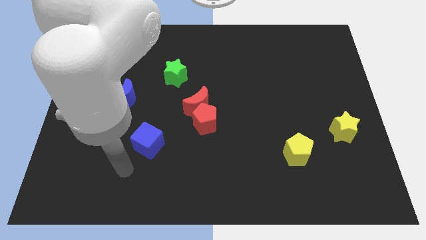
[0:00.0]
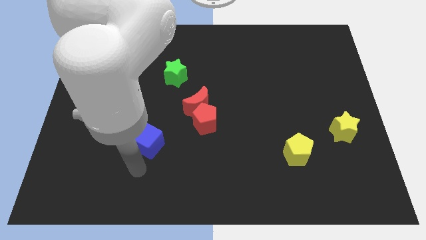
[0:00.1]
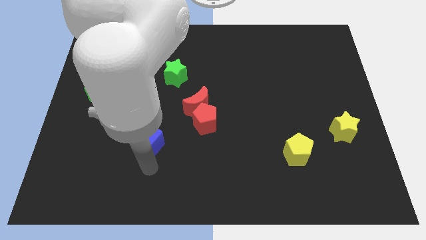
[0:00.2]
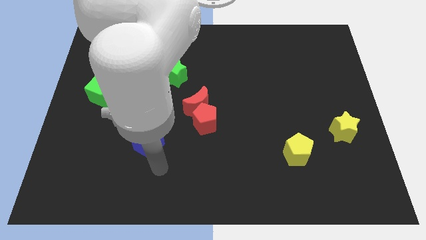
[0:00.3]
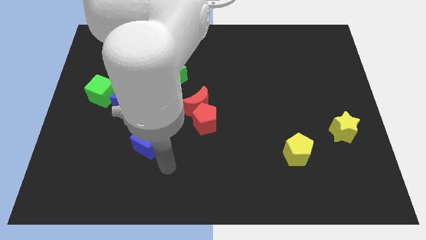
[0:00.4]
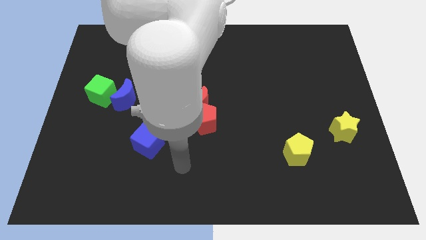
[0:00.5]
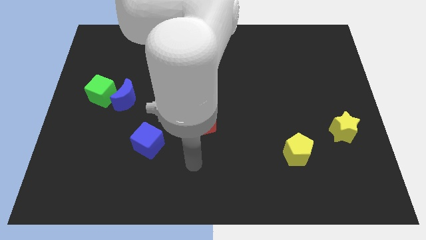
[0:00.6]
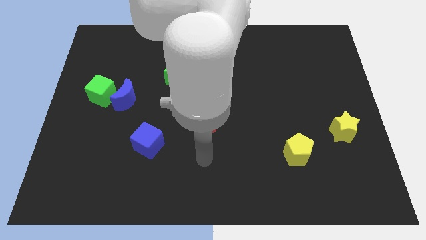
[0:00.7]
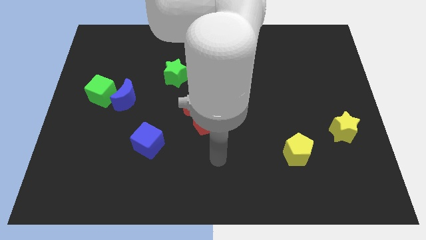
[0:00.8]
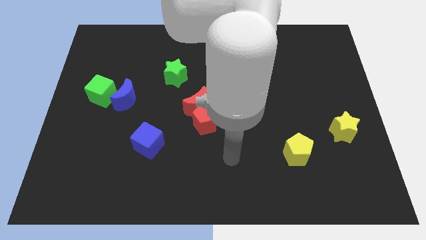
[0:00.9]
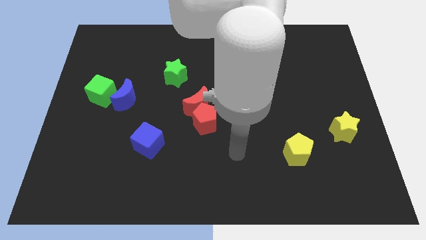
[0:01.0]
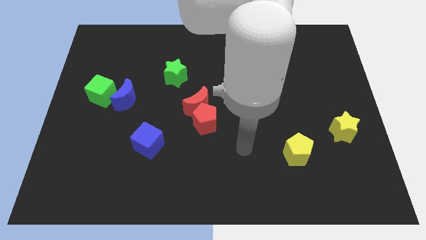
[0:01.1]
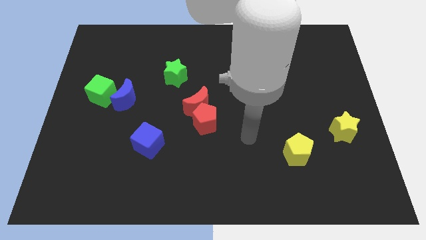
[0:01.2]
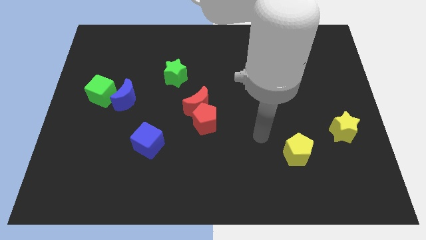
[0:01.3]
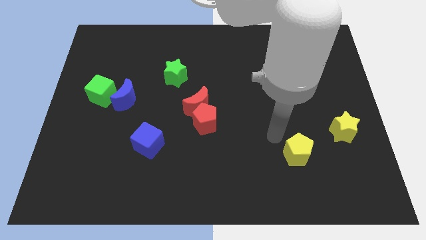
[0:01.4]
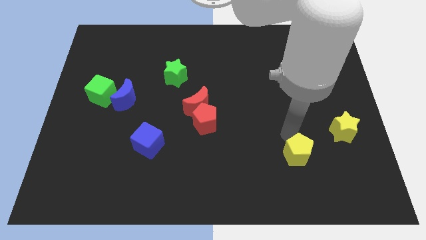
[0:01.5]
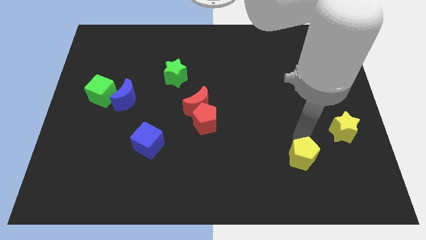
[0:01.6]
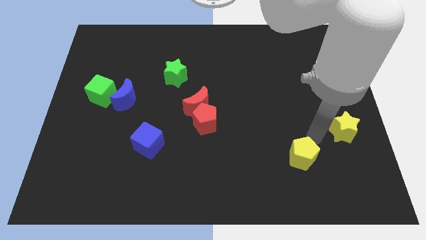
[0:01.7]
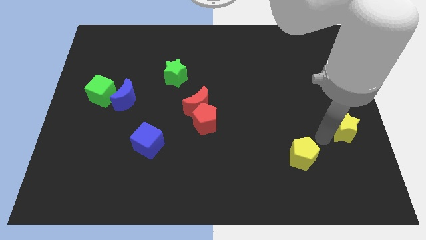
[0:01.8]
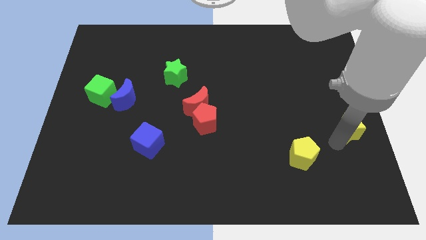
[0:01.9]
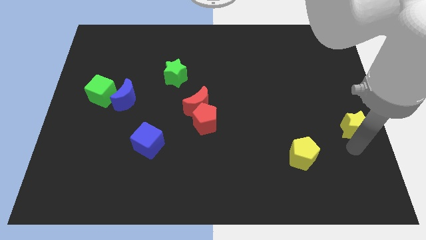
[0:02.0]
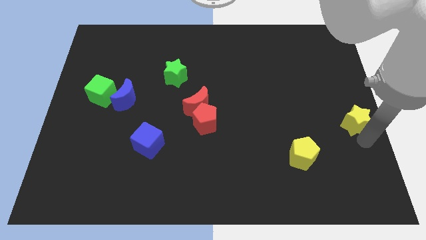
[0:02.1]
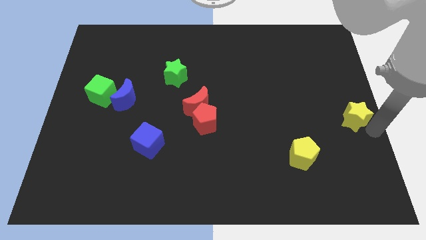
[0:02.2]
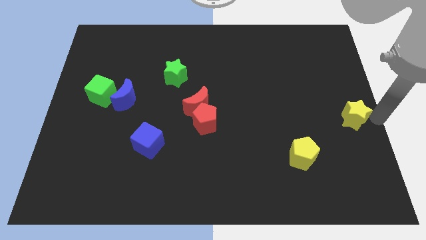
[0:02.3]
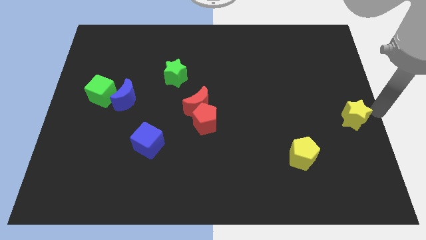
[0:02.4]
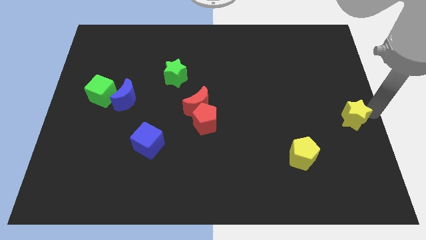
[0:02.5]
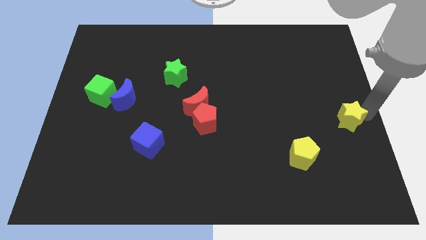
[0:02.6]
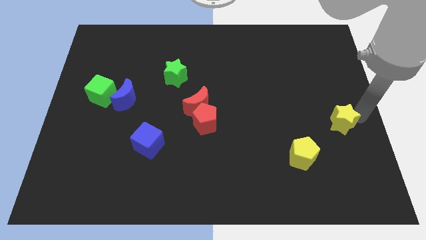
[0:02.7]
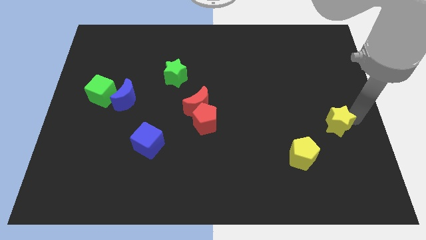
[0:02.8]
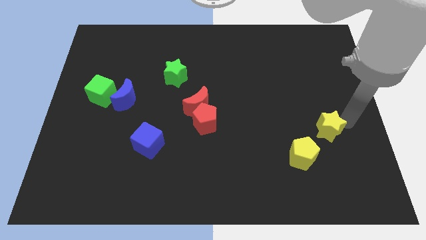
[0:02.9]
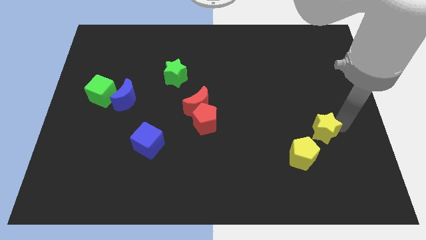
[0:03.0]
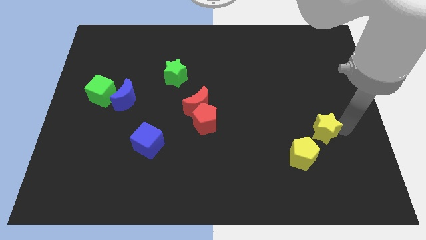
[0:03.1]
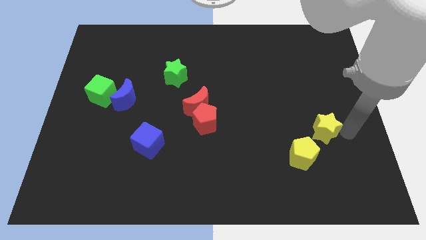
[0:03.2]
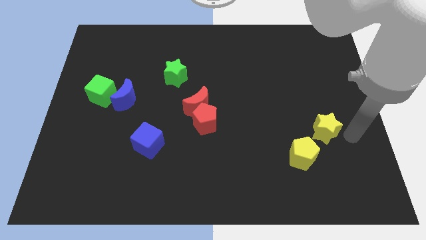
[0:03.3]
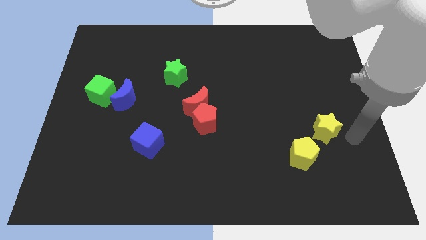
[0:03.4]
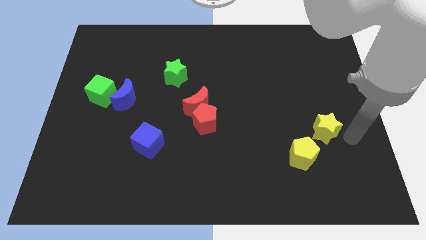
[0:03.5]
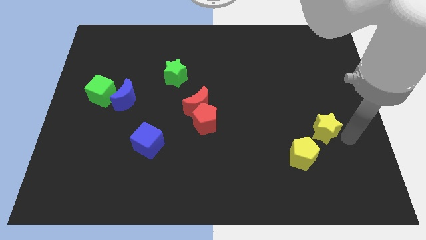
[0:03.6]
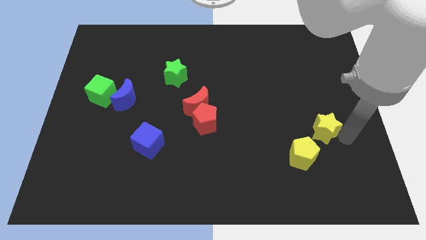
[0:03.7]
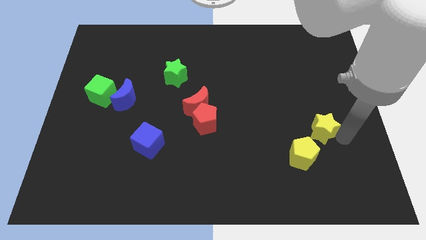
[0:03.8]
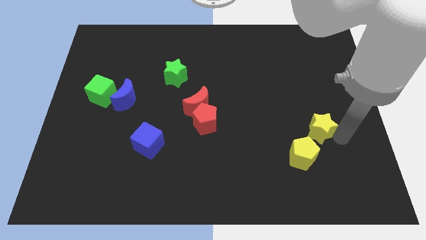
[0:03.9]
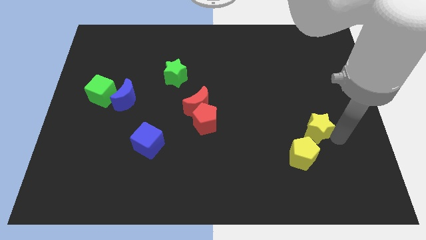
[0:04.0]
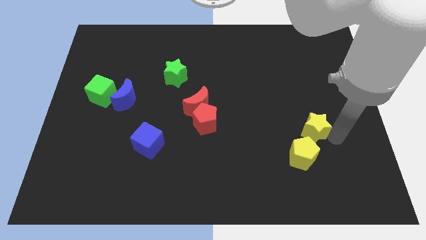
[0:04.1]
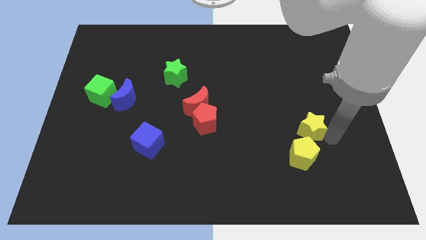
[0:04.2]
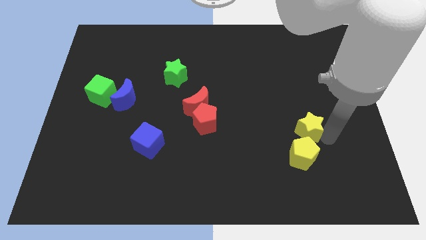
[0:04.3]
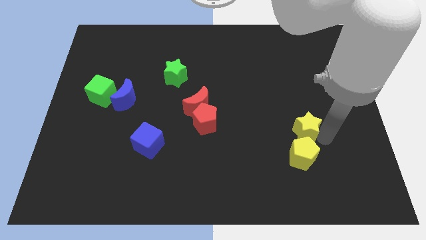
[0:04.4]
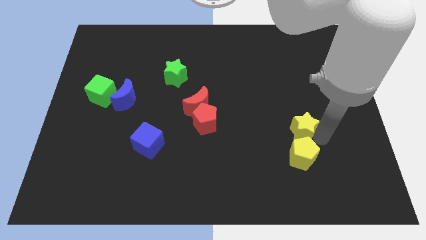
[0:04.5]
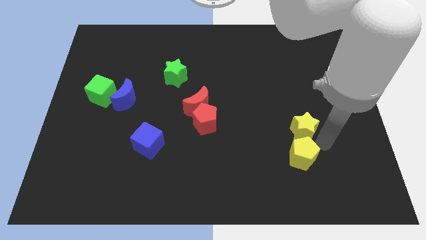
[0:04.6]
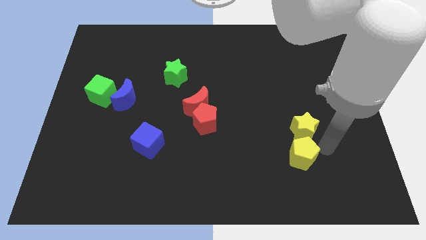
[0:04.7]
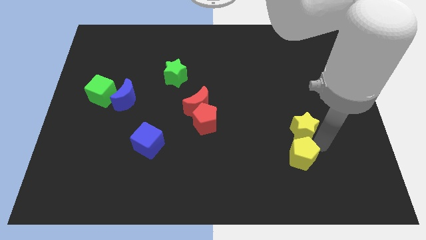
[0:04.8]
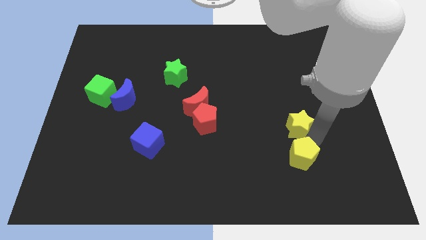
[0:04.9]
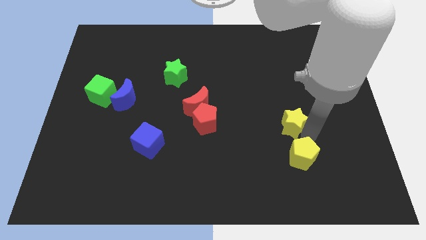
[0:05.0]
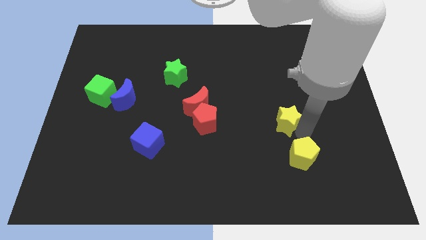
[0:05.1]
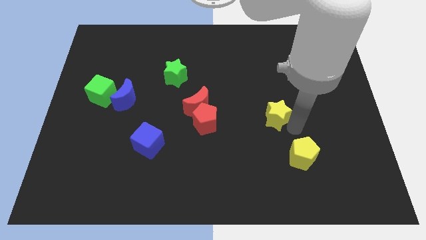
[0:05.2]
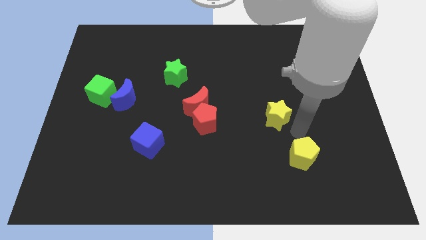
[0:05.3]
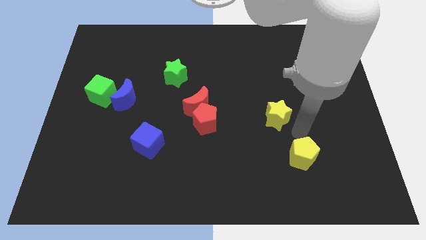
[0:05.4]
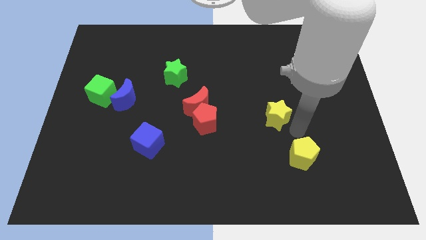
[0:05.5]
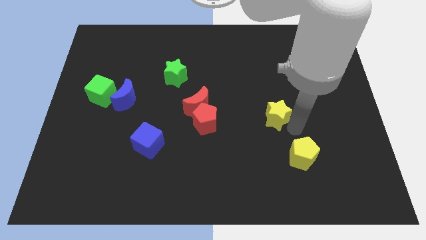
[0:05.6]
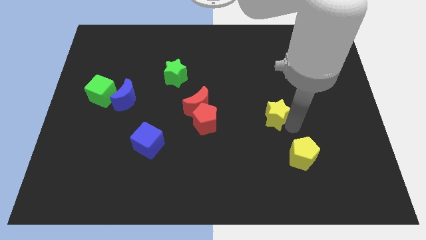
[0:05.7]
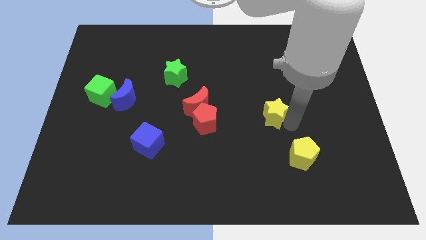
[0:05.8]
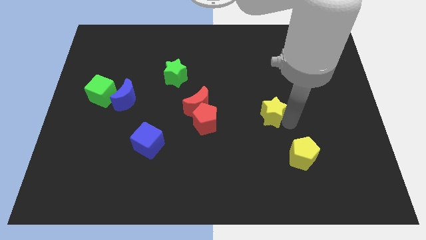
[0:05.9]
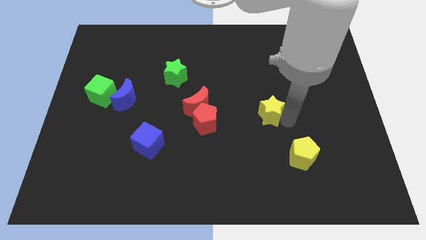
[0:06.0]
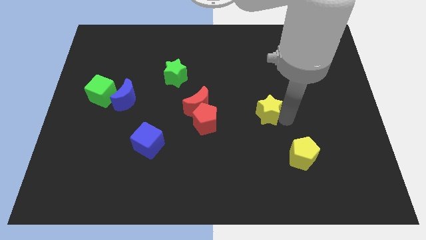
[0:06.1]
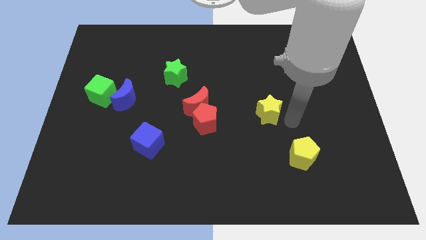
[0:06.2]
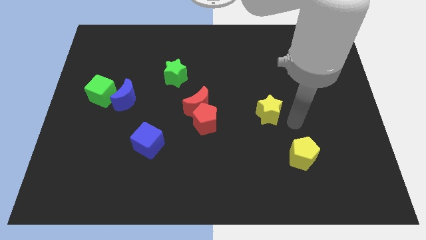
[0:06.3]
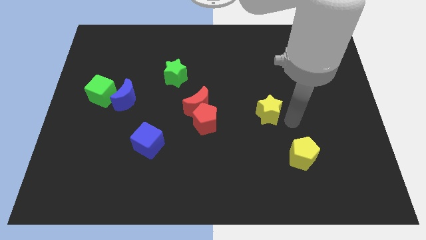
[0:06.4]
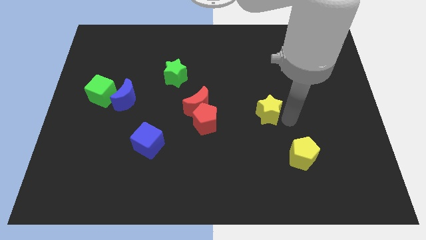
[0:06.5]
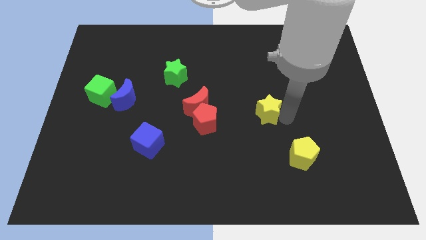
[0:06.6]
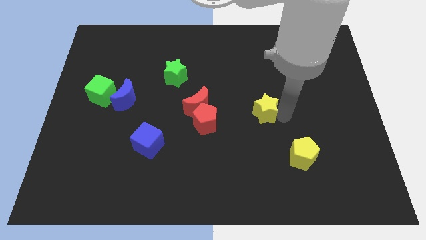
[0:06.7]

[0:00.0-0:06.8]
slide the yellow star to the center
